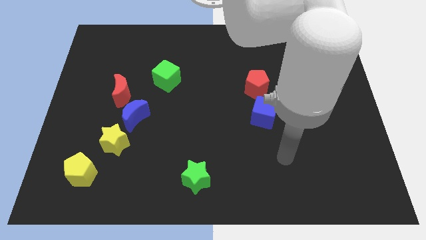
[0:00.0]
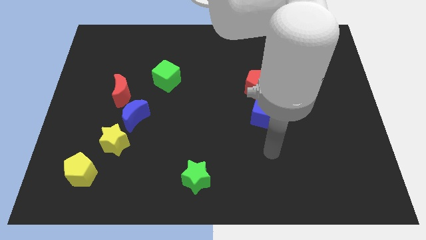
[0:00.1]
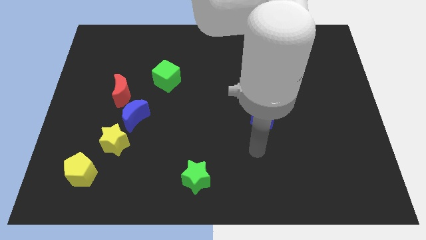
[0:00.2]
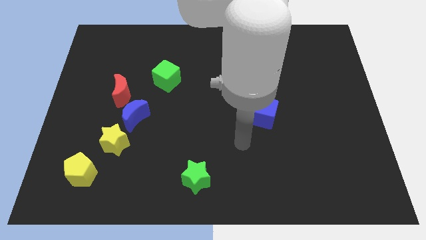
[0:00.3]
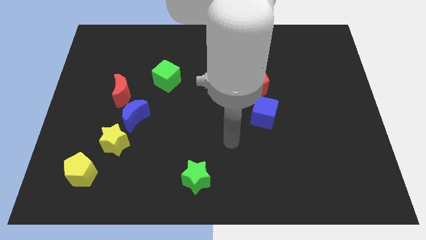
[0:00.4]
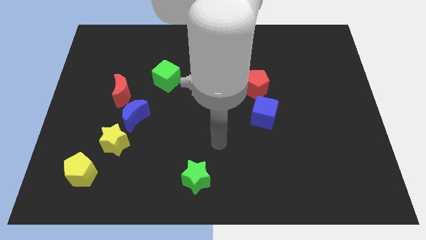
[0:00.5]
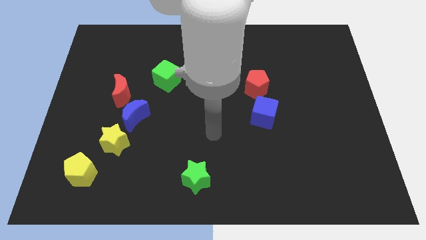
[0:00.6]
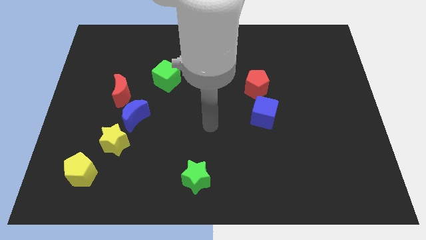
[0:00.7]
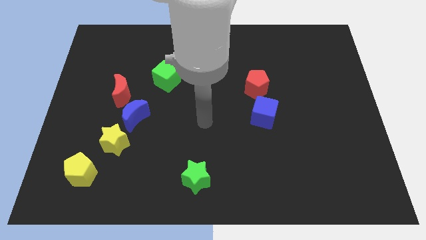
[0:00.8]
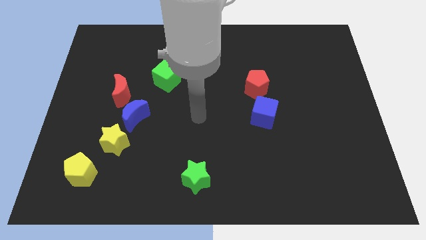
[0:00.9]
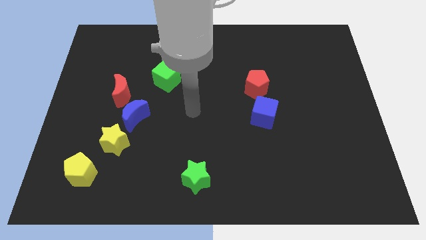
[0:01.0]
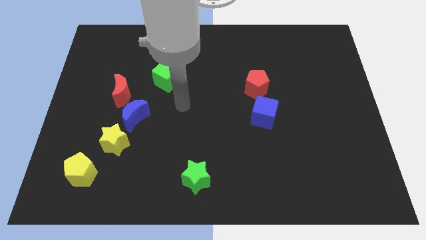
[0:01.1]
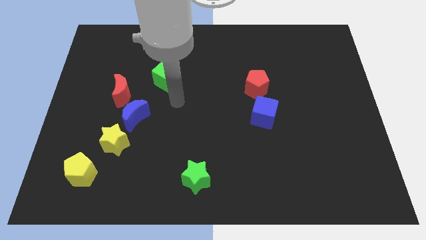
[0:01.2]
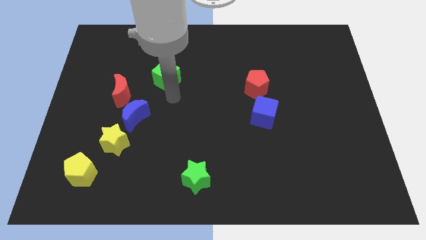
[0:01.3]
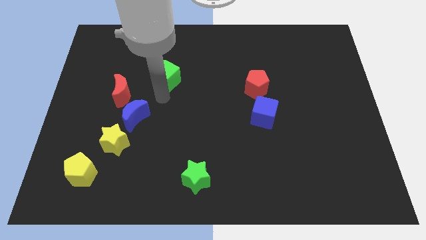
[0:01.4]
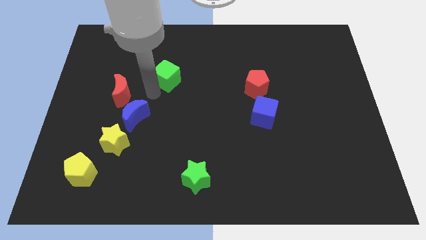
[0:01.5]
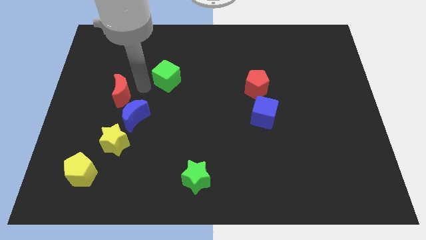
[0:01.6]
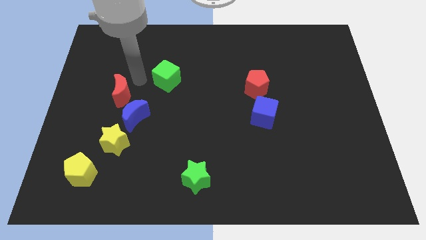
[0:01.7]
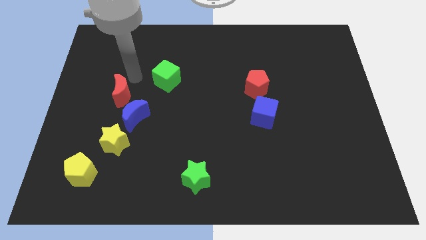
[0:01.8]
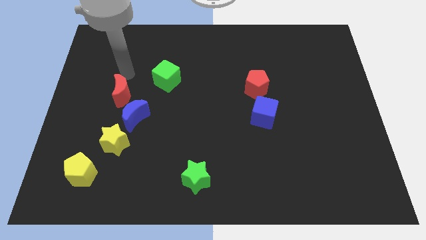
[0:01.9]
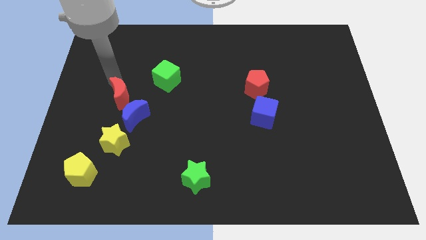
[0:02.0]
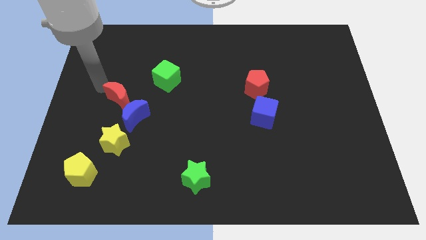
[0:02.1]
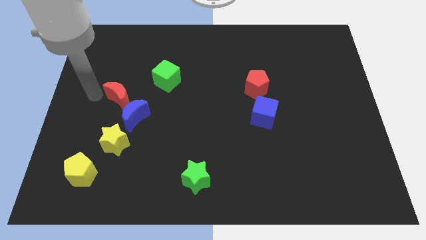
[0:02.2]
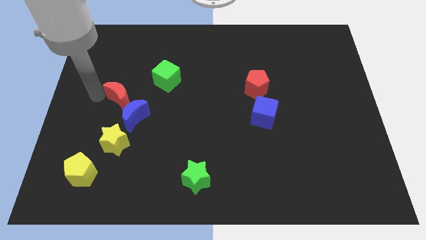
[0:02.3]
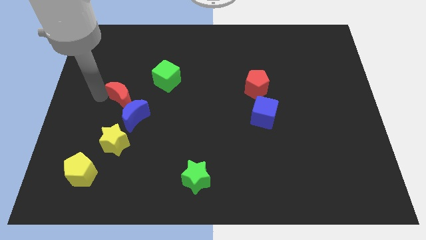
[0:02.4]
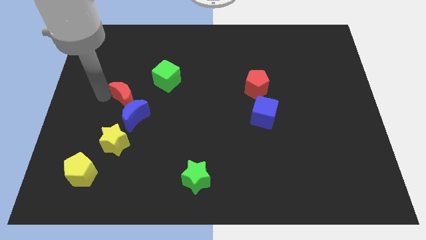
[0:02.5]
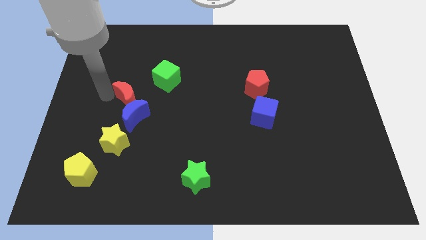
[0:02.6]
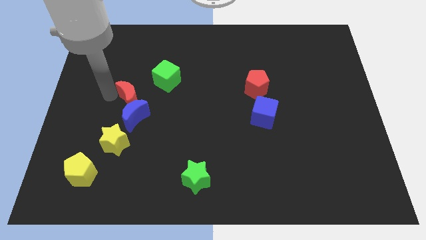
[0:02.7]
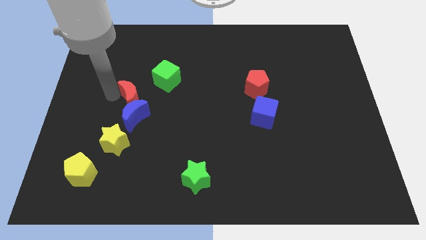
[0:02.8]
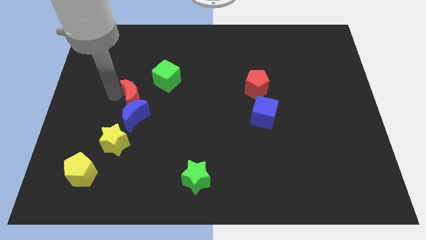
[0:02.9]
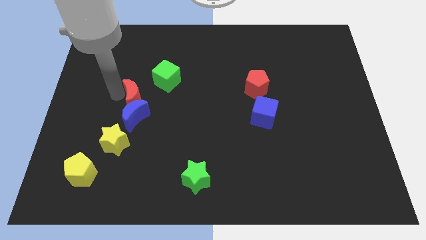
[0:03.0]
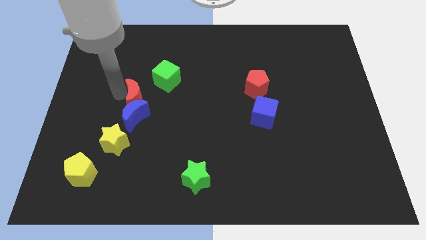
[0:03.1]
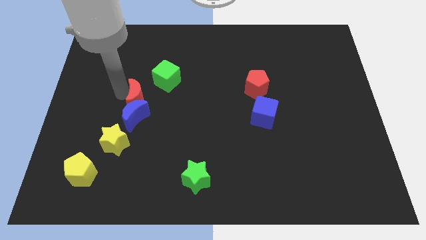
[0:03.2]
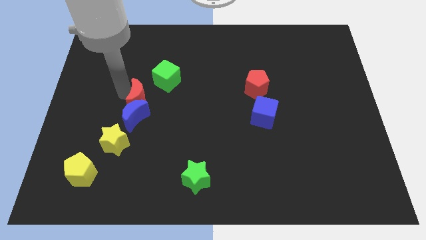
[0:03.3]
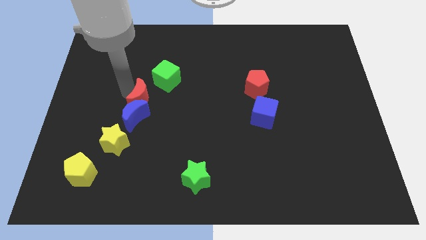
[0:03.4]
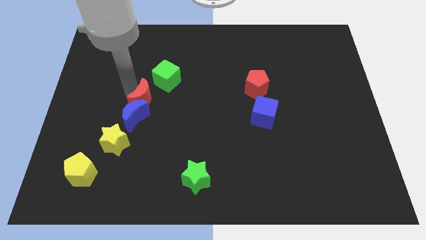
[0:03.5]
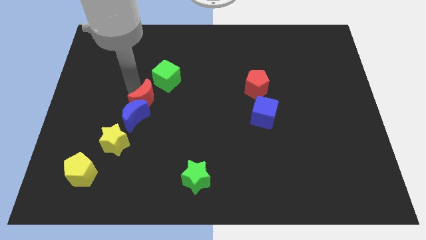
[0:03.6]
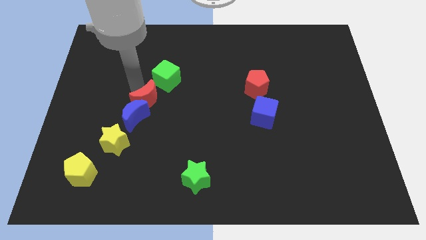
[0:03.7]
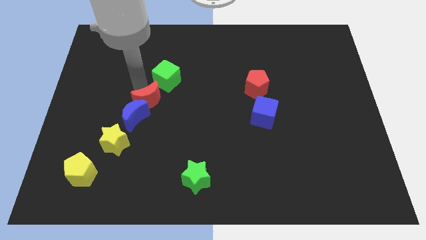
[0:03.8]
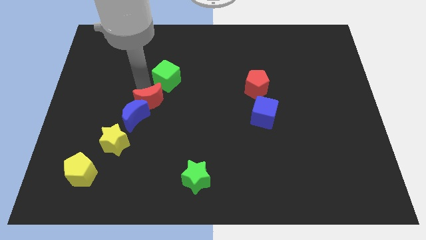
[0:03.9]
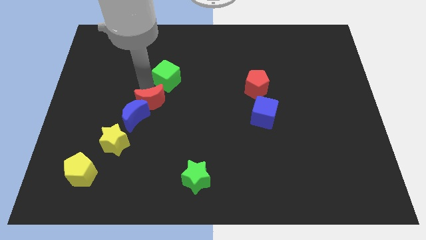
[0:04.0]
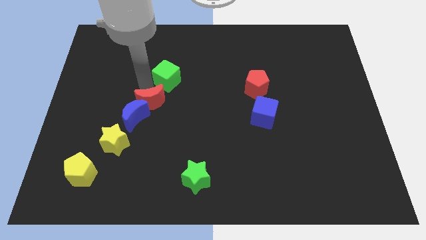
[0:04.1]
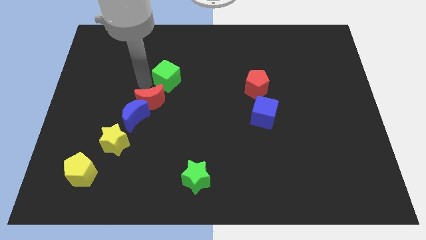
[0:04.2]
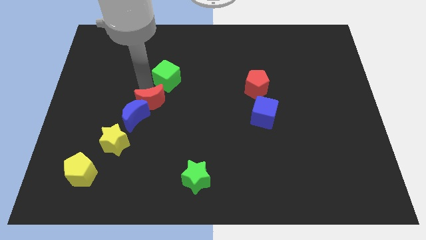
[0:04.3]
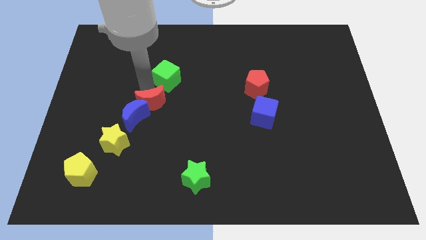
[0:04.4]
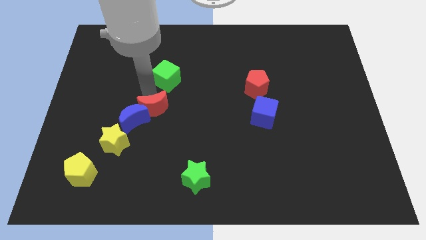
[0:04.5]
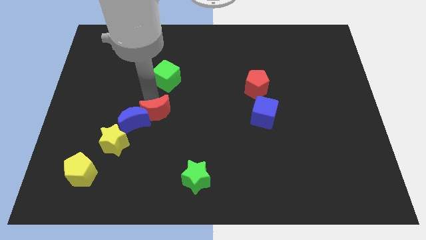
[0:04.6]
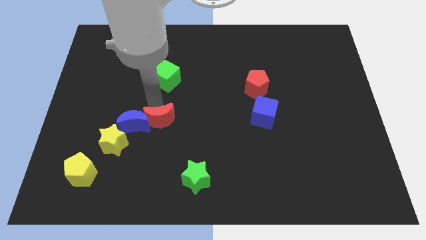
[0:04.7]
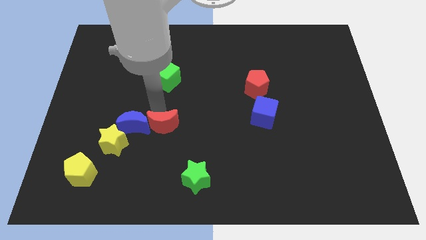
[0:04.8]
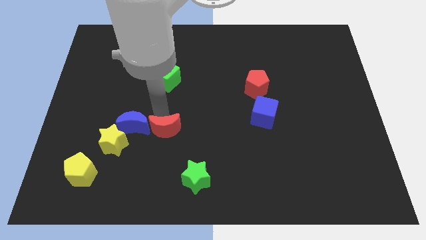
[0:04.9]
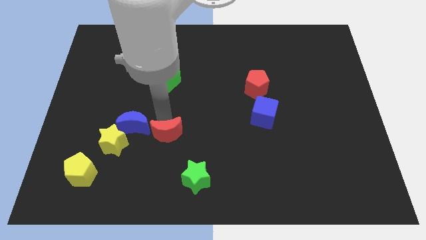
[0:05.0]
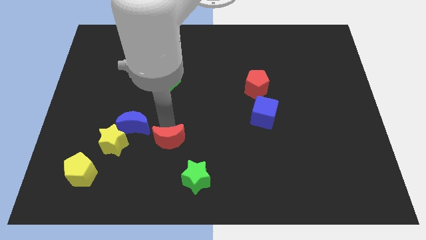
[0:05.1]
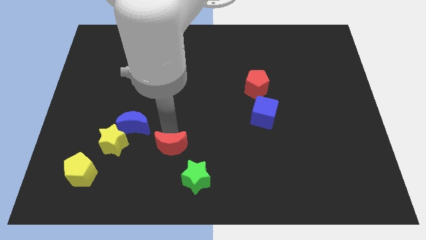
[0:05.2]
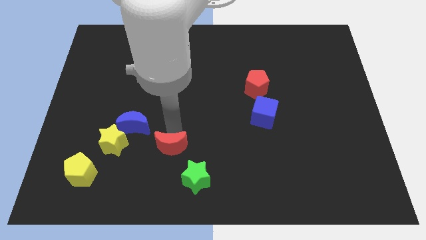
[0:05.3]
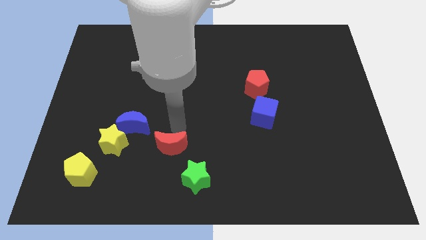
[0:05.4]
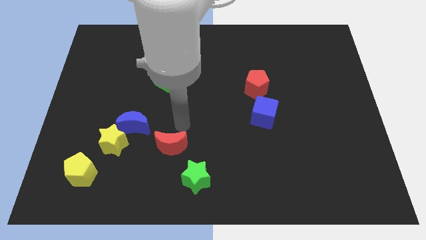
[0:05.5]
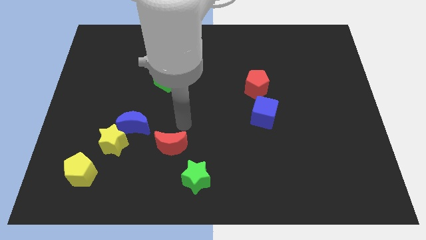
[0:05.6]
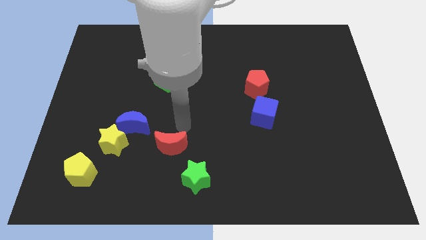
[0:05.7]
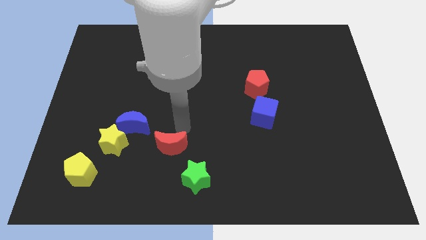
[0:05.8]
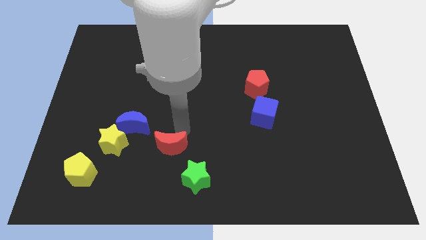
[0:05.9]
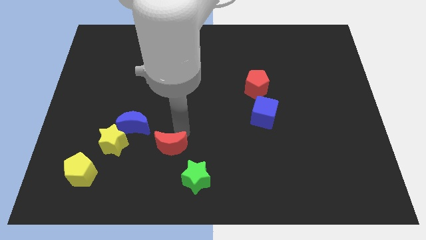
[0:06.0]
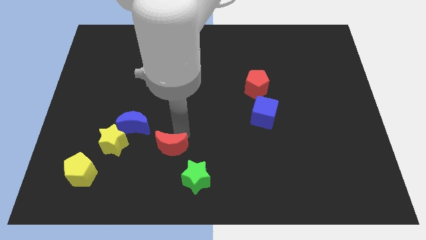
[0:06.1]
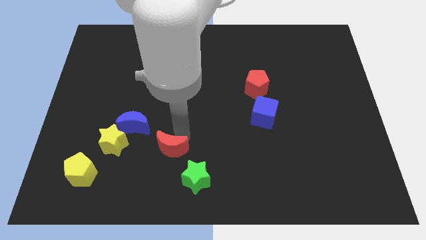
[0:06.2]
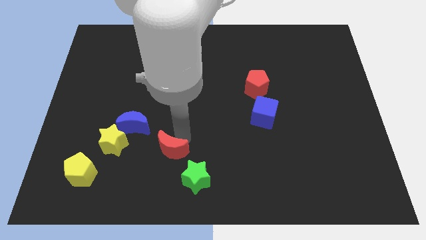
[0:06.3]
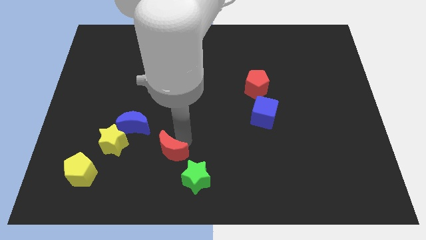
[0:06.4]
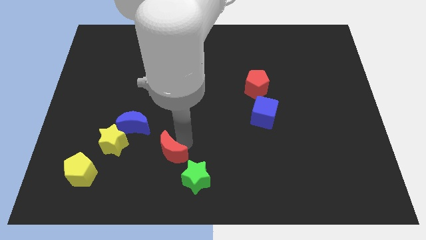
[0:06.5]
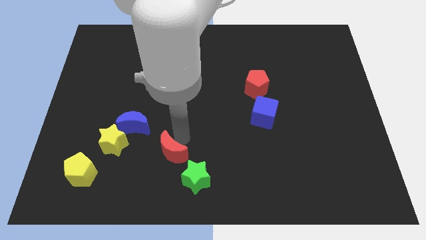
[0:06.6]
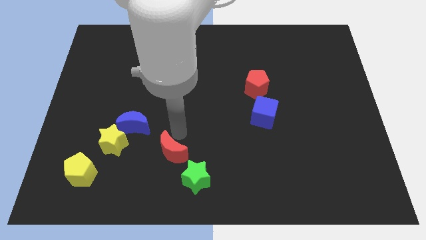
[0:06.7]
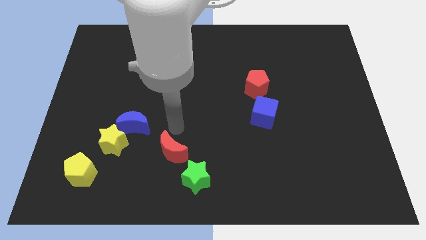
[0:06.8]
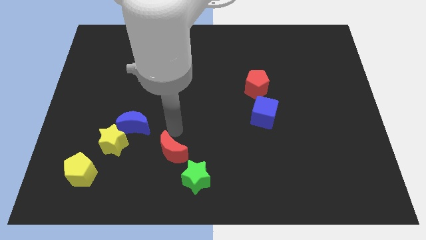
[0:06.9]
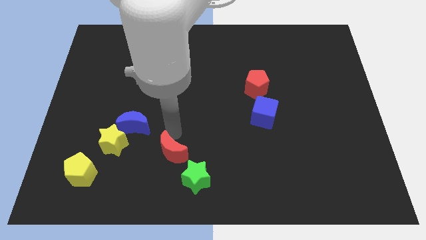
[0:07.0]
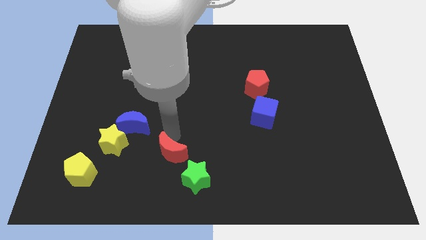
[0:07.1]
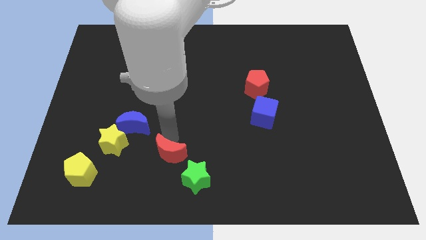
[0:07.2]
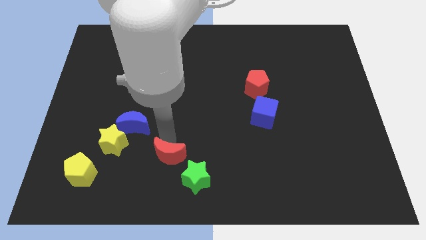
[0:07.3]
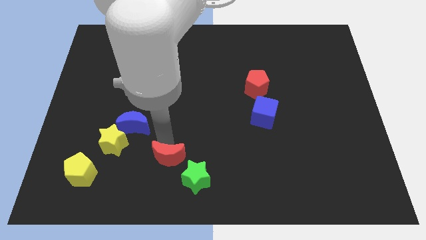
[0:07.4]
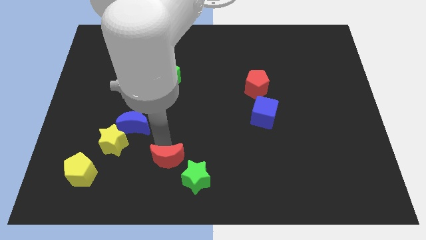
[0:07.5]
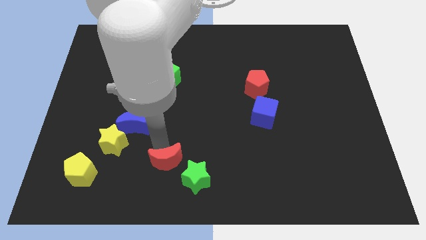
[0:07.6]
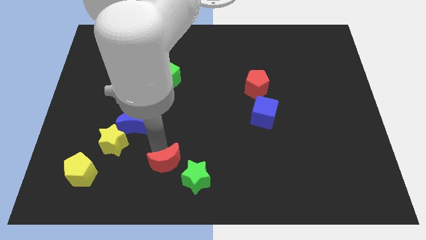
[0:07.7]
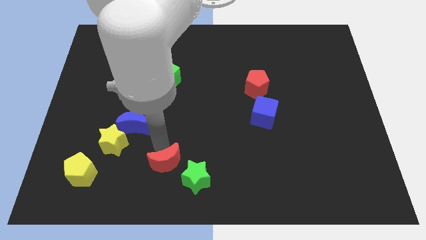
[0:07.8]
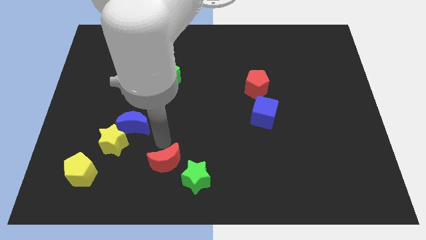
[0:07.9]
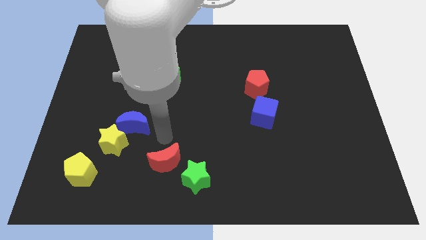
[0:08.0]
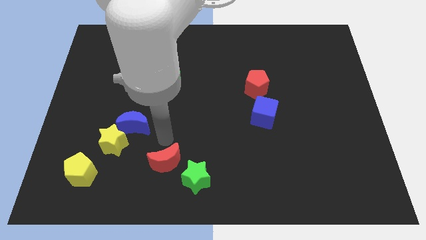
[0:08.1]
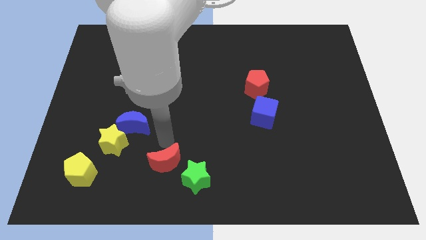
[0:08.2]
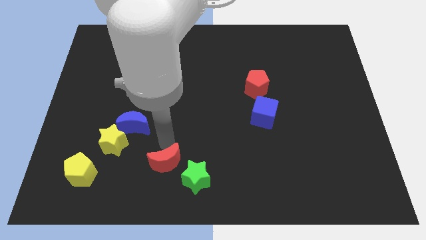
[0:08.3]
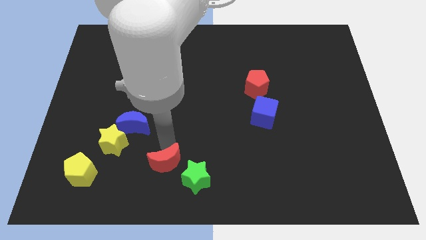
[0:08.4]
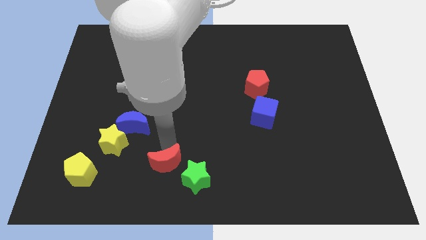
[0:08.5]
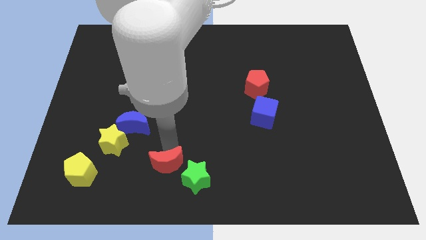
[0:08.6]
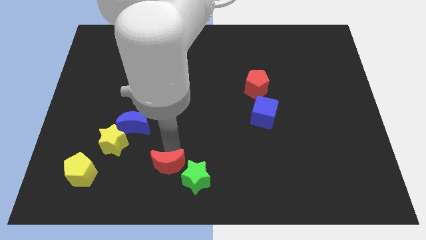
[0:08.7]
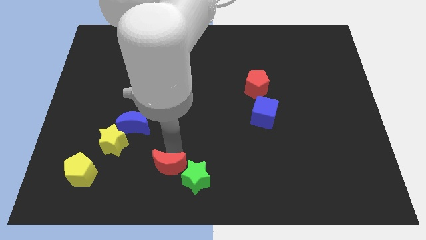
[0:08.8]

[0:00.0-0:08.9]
move the red moon to the bottom side
